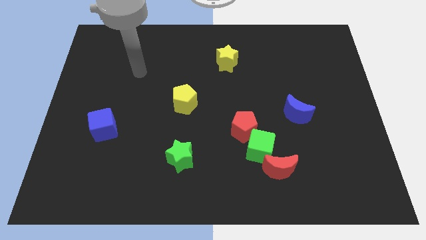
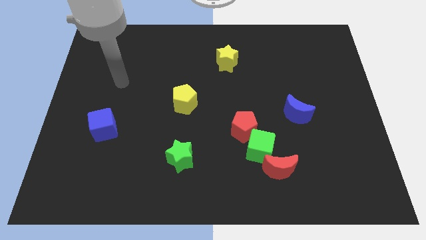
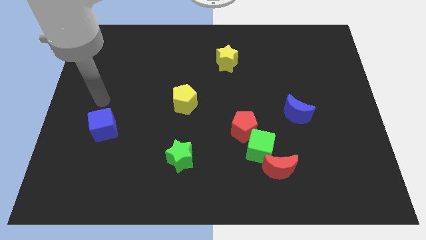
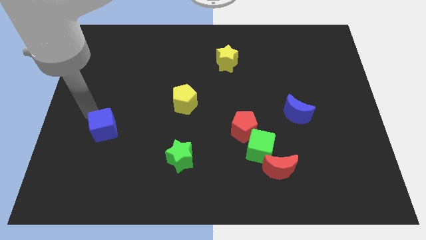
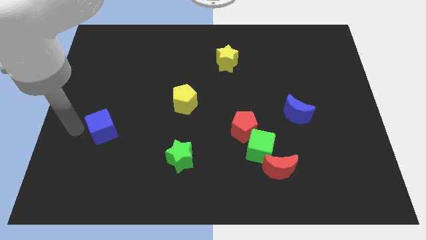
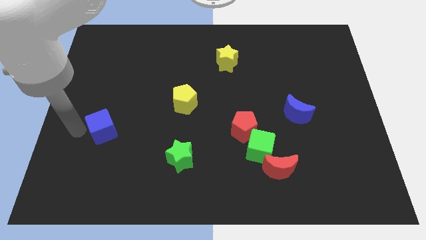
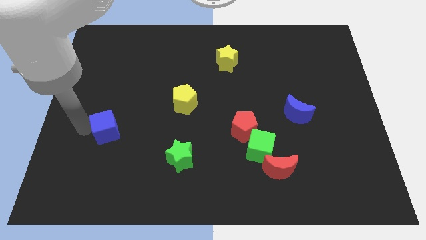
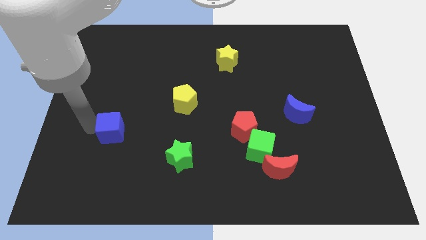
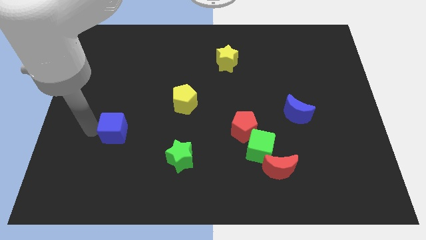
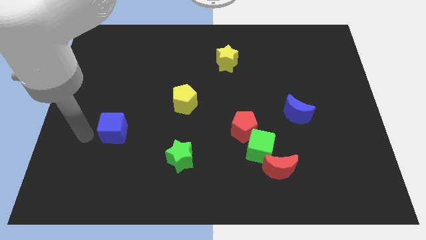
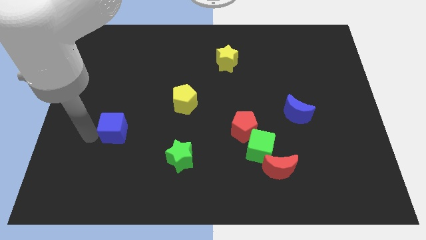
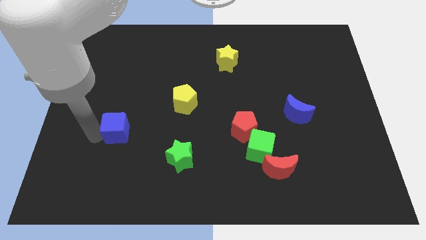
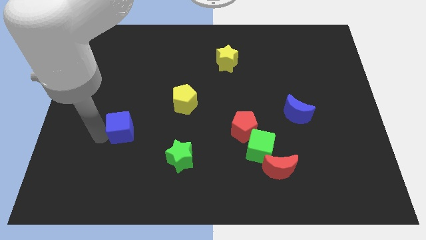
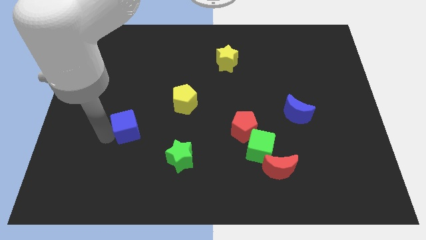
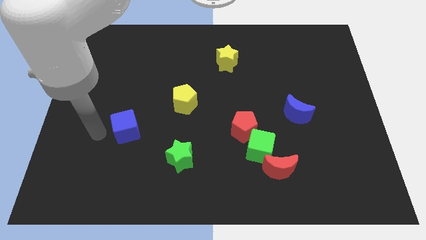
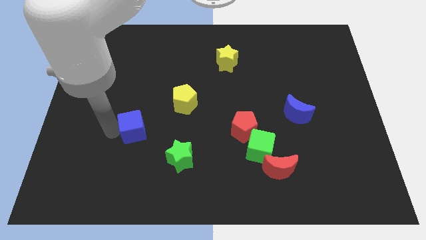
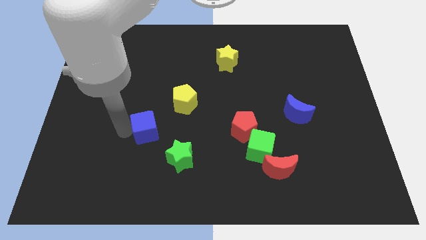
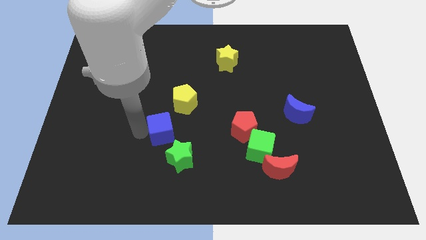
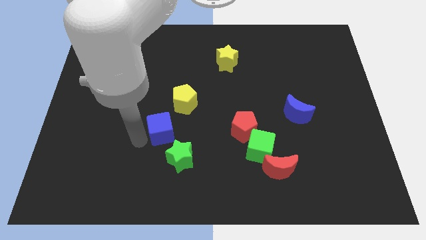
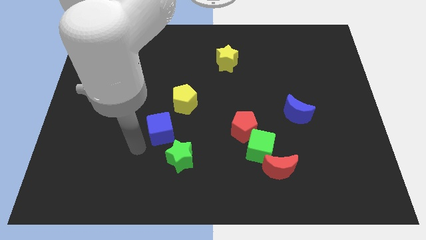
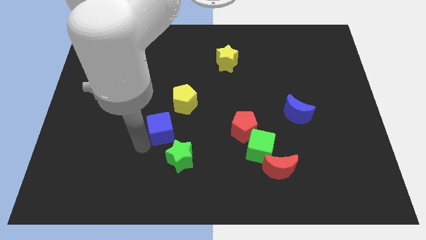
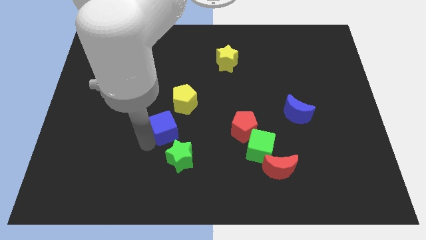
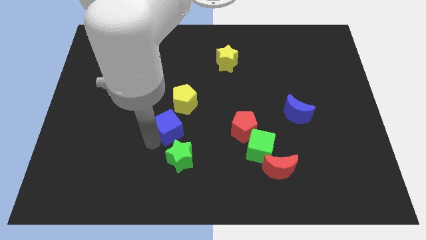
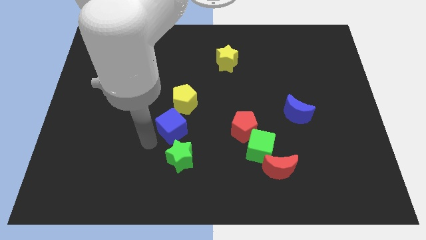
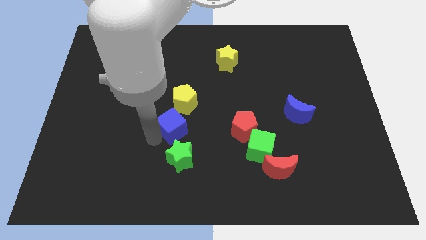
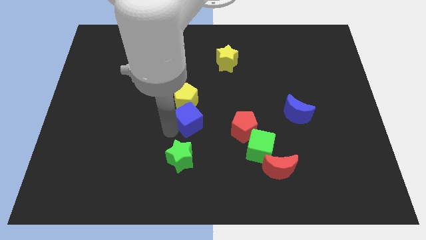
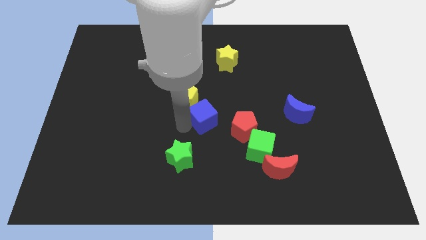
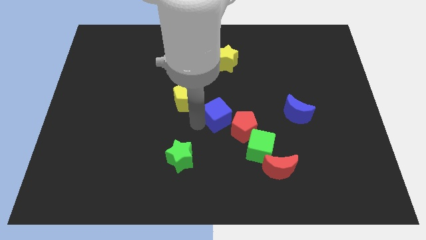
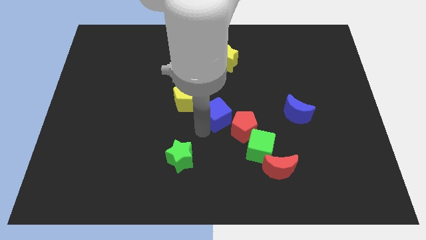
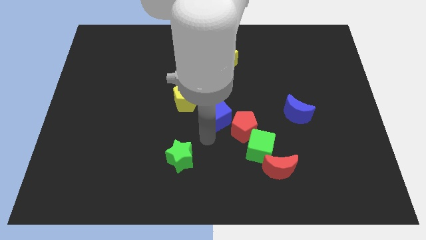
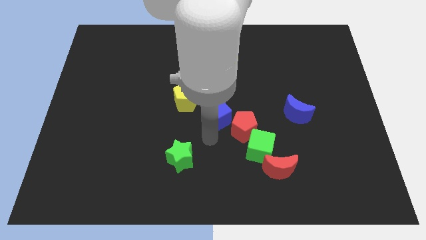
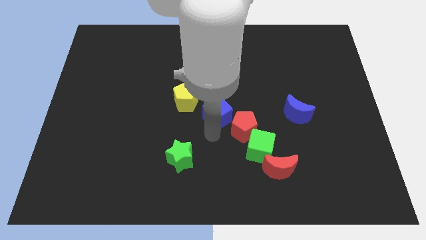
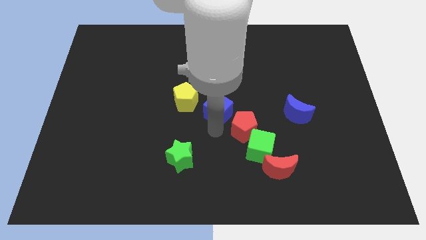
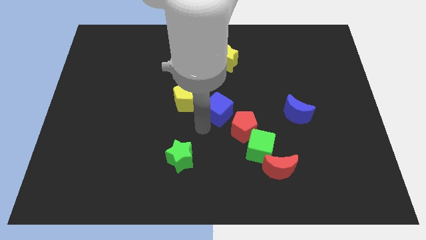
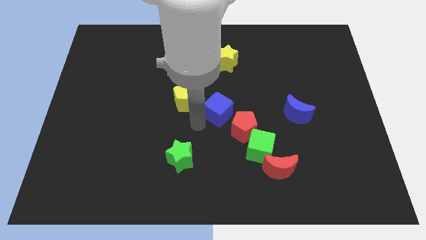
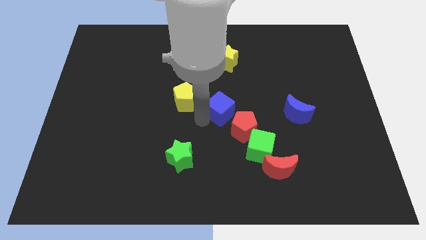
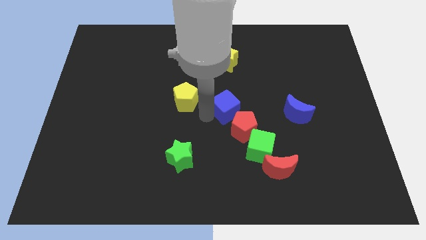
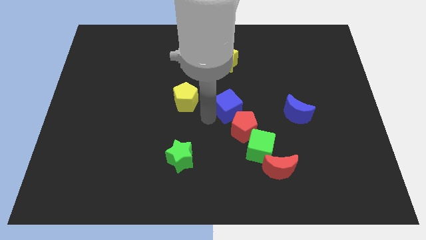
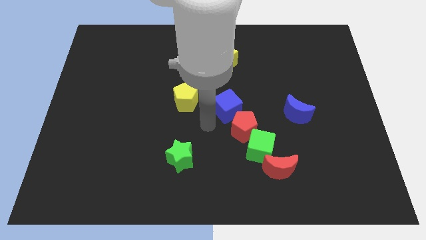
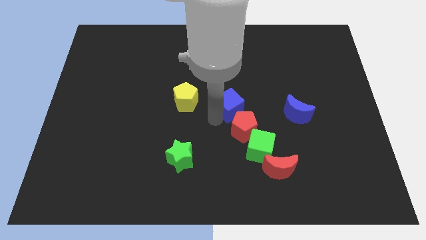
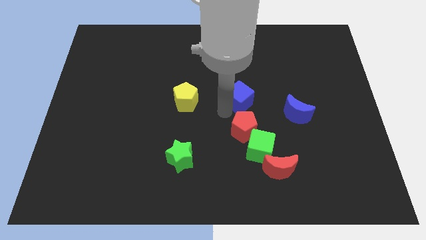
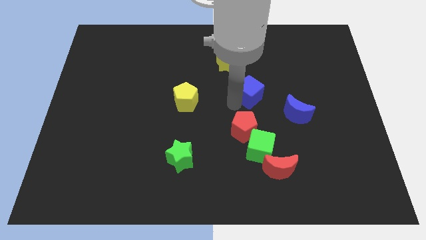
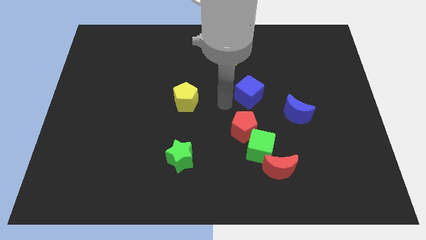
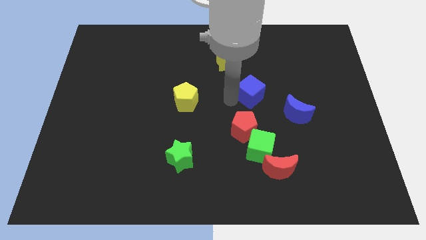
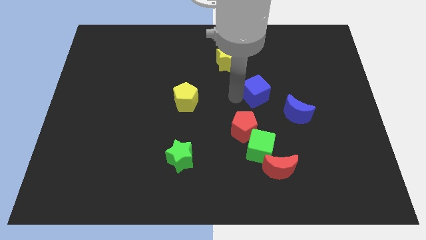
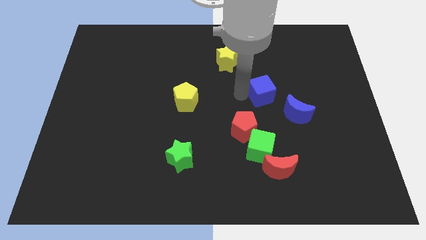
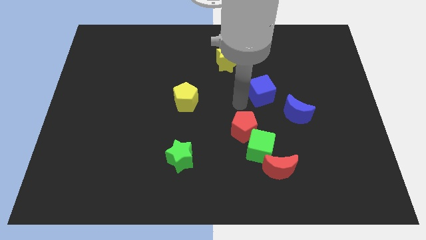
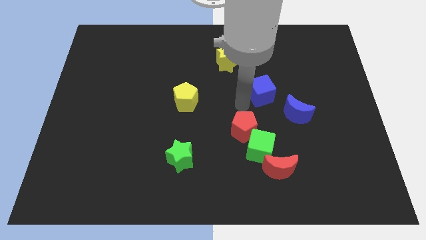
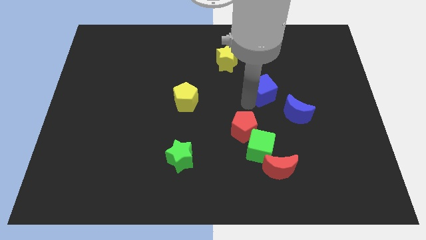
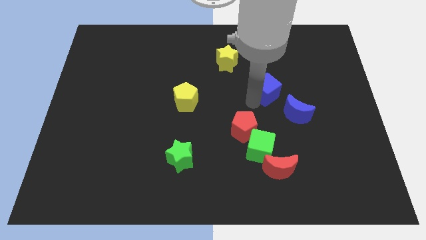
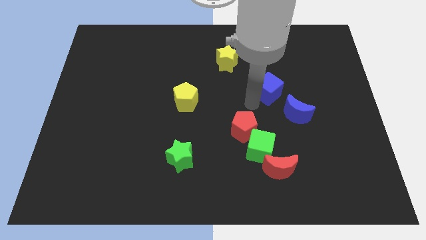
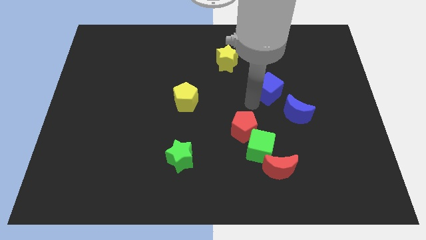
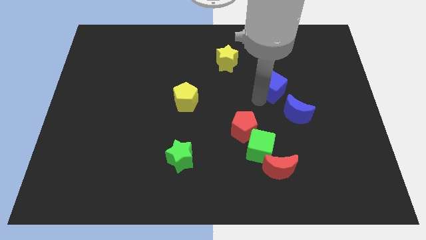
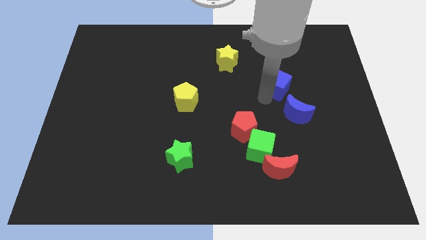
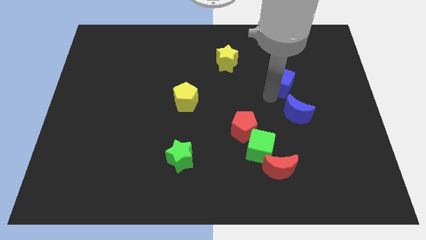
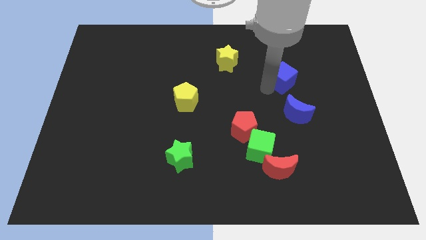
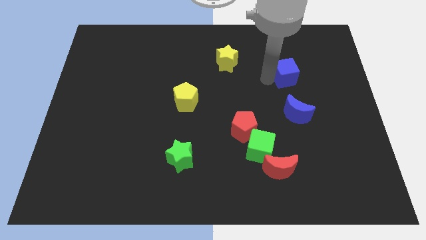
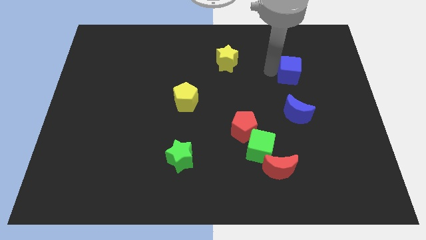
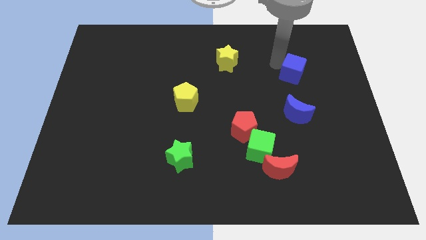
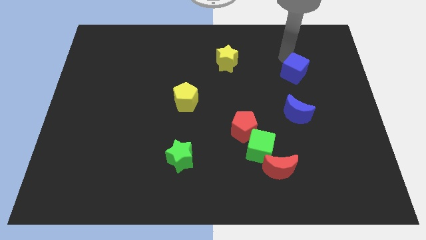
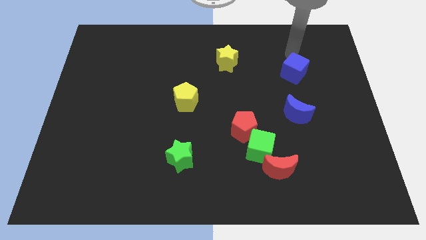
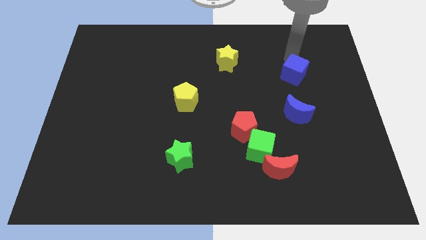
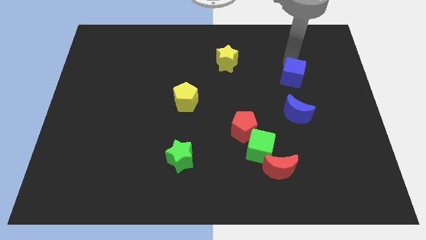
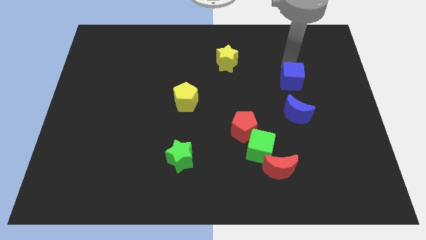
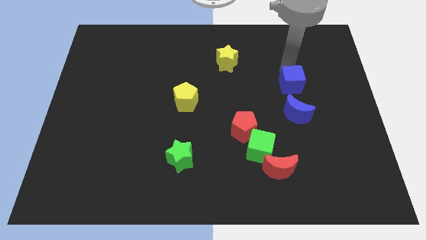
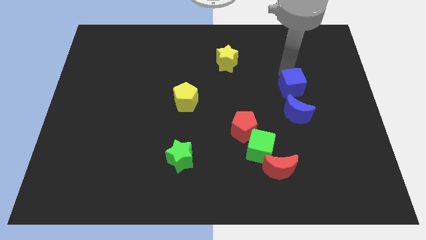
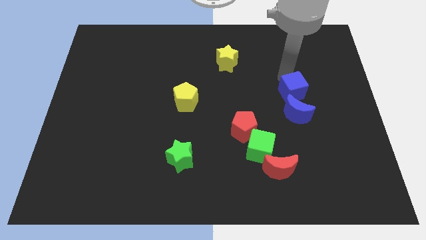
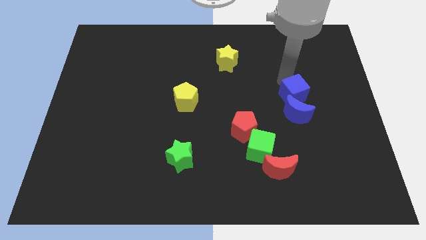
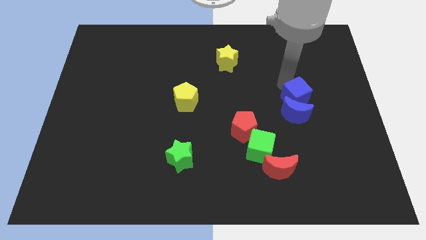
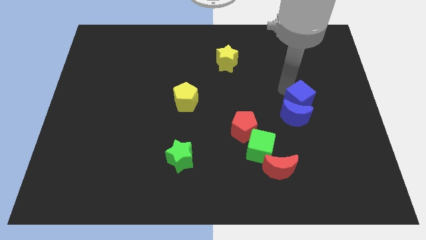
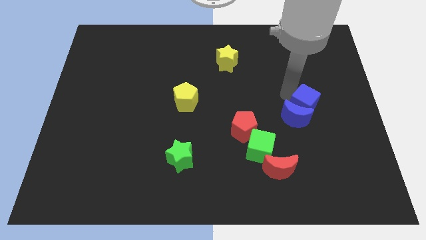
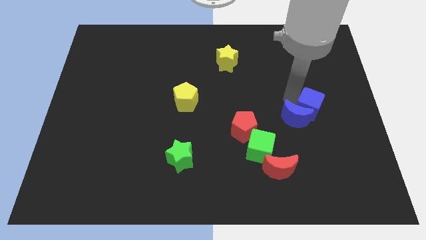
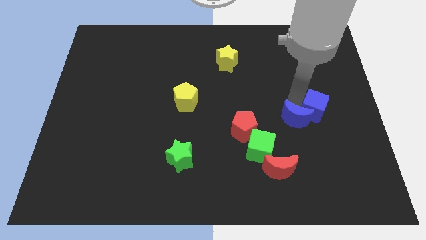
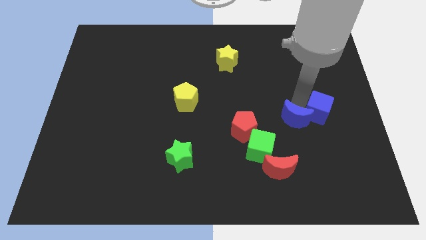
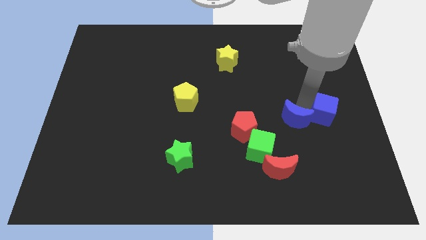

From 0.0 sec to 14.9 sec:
push the blue cube to the right side
